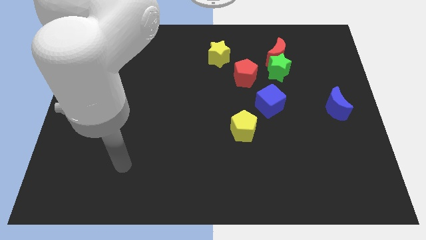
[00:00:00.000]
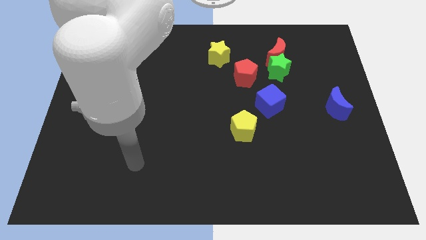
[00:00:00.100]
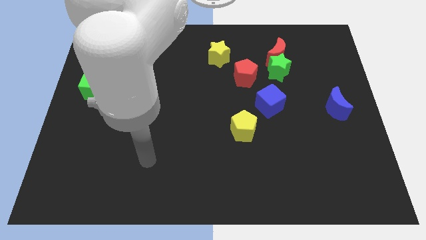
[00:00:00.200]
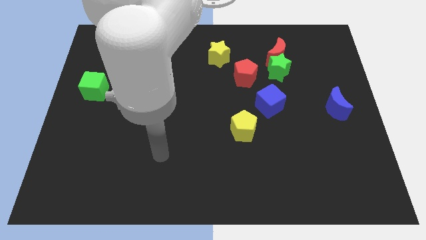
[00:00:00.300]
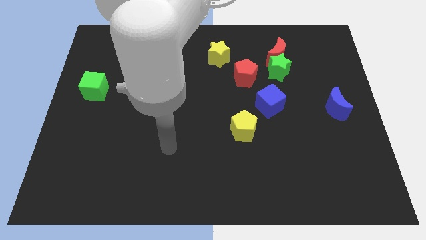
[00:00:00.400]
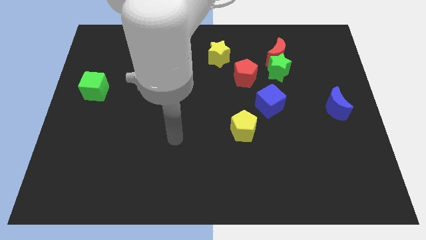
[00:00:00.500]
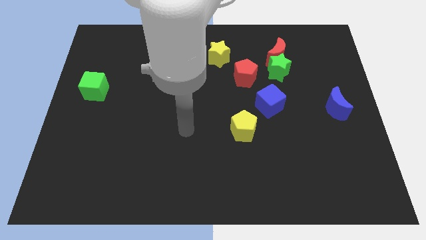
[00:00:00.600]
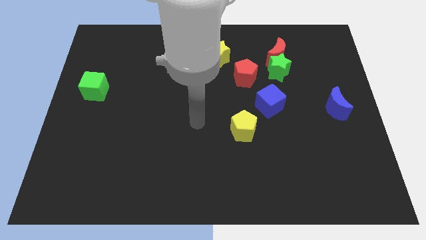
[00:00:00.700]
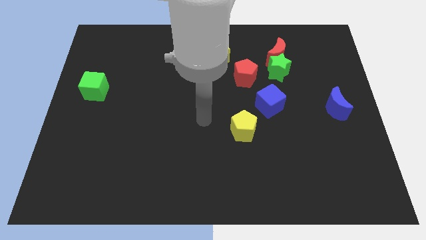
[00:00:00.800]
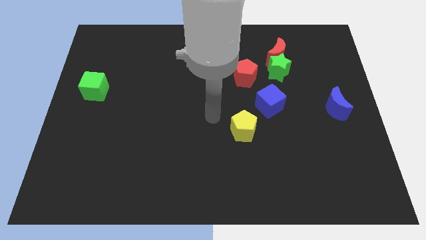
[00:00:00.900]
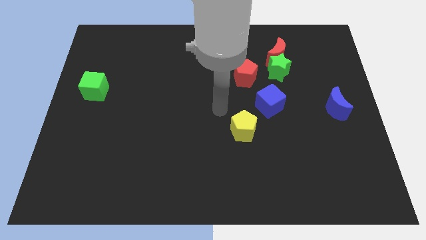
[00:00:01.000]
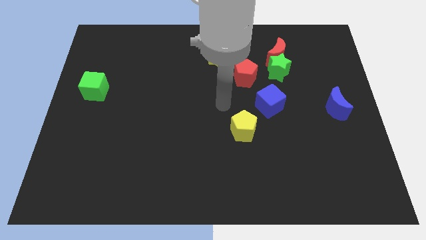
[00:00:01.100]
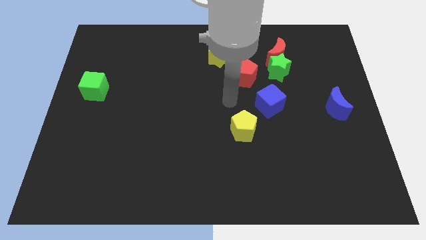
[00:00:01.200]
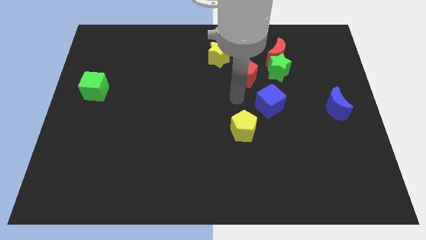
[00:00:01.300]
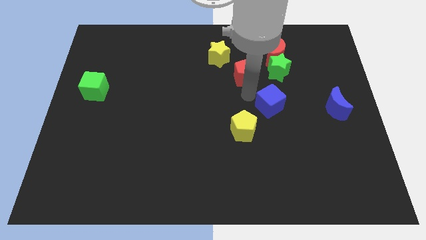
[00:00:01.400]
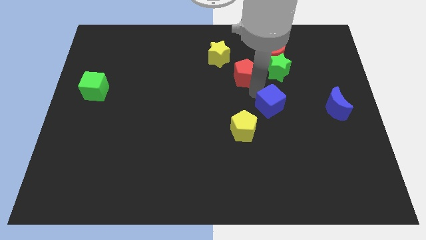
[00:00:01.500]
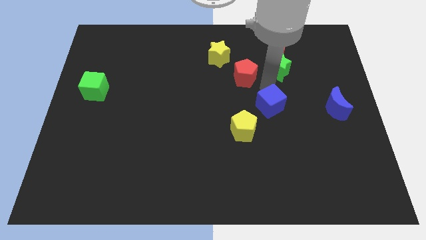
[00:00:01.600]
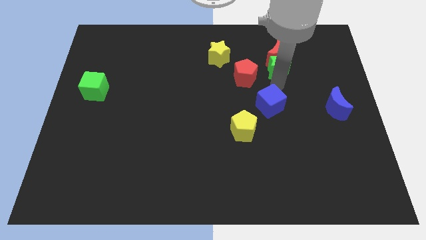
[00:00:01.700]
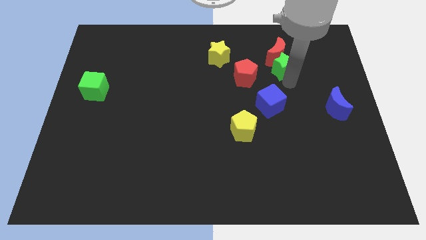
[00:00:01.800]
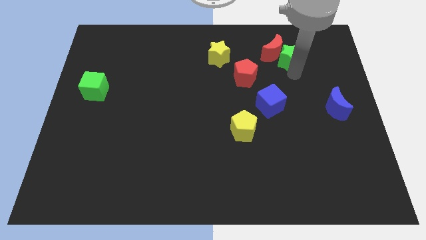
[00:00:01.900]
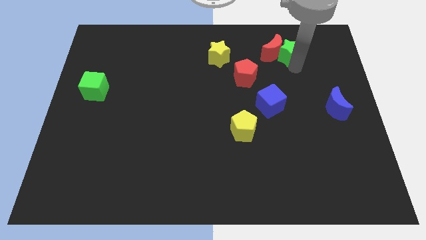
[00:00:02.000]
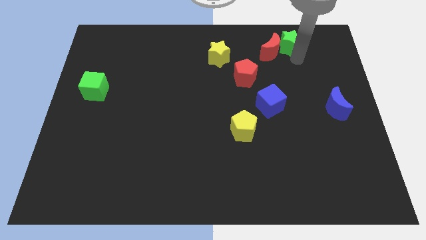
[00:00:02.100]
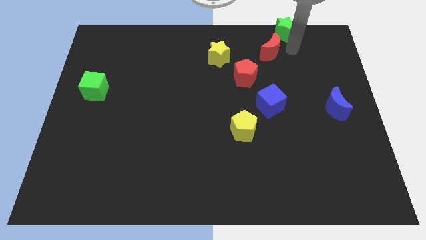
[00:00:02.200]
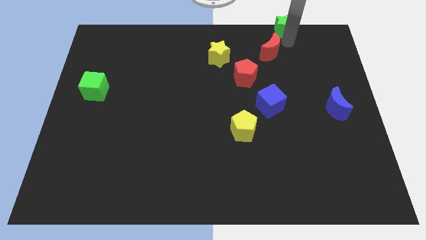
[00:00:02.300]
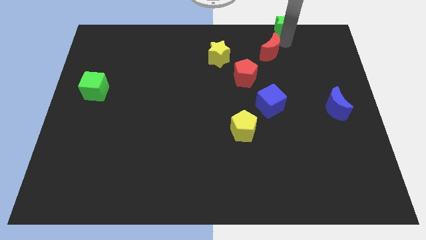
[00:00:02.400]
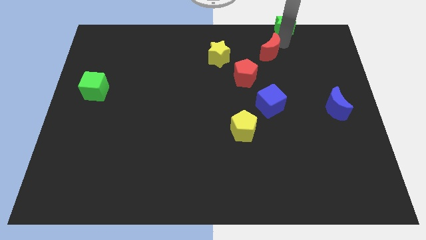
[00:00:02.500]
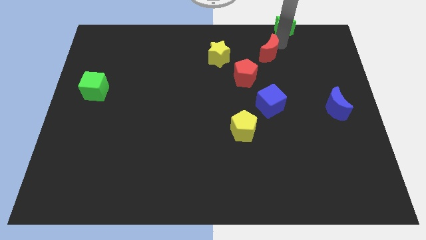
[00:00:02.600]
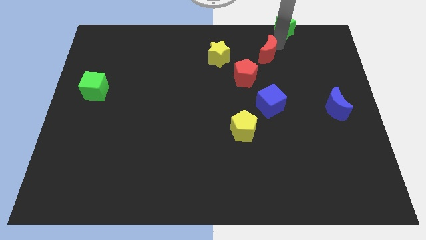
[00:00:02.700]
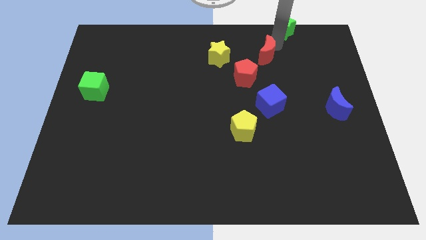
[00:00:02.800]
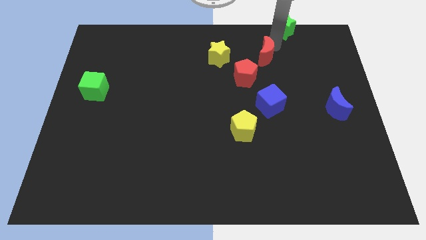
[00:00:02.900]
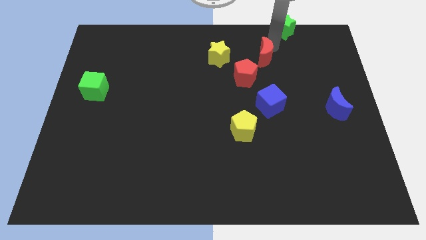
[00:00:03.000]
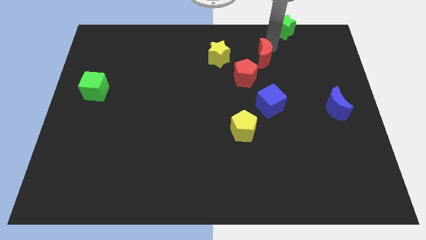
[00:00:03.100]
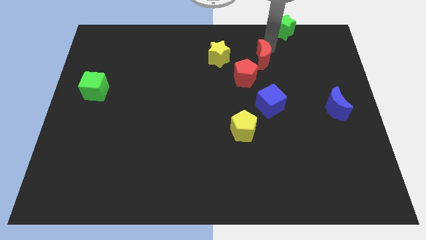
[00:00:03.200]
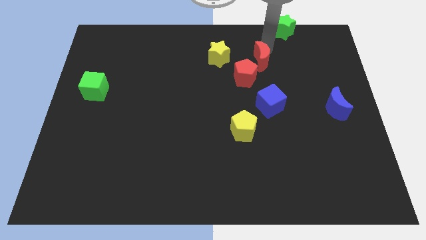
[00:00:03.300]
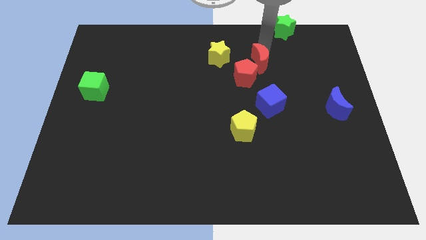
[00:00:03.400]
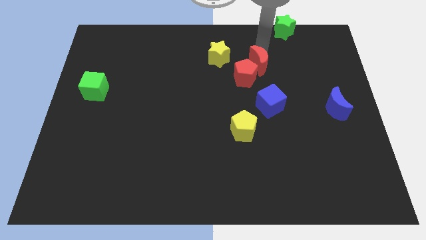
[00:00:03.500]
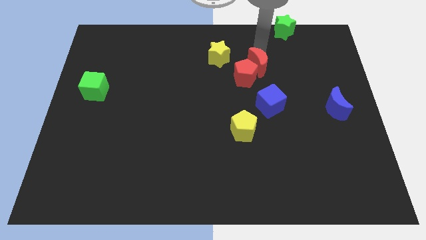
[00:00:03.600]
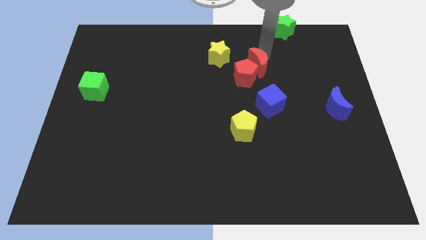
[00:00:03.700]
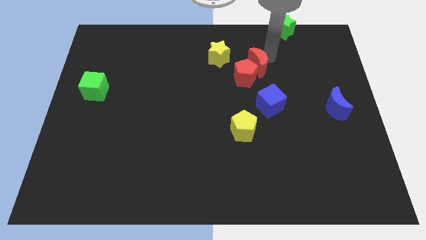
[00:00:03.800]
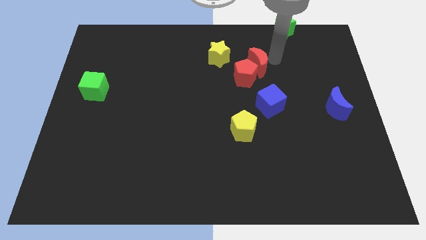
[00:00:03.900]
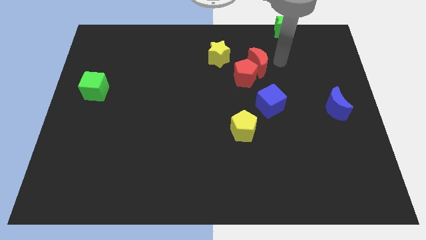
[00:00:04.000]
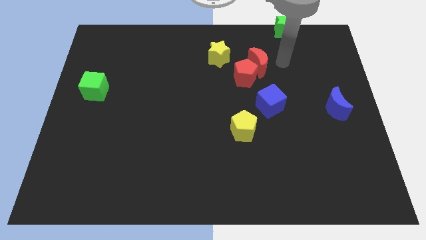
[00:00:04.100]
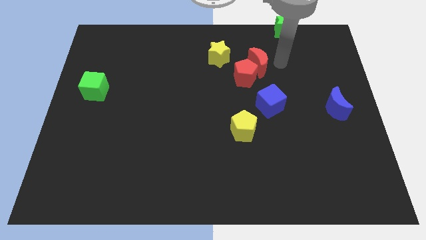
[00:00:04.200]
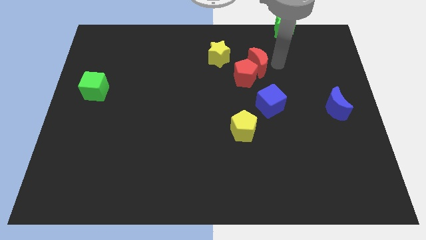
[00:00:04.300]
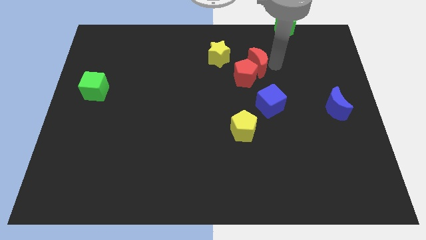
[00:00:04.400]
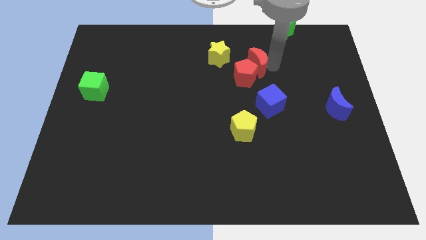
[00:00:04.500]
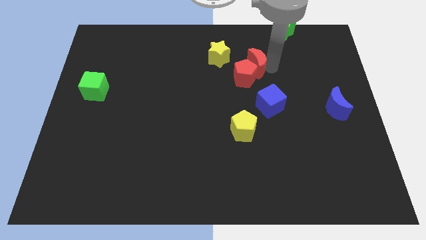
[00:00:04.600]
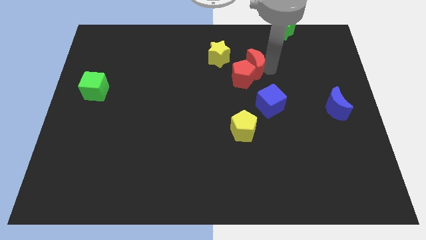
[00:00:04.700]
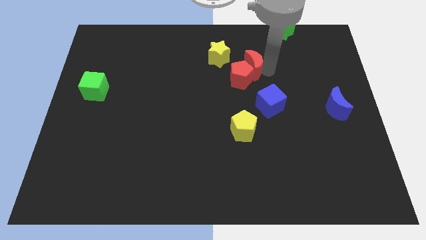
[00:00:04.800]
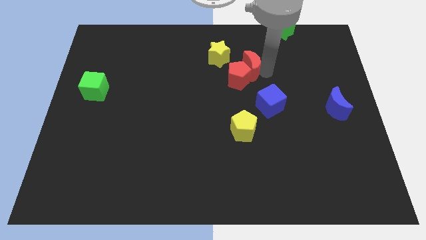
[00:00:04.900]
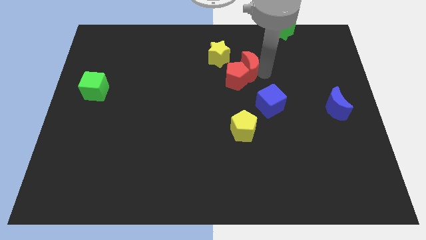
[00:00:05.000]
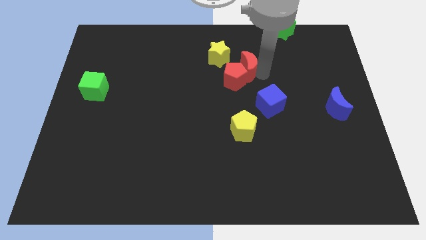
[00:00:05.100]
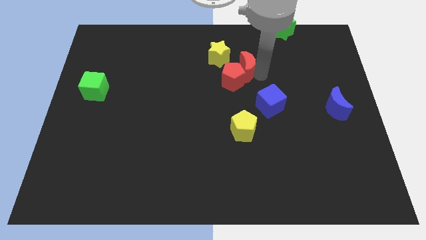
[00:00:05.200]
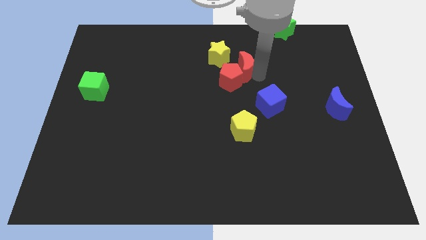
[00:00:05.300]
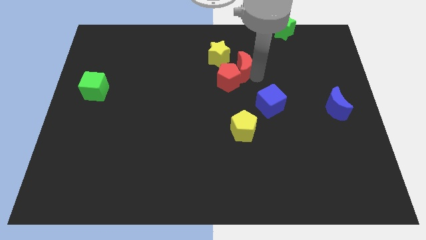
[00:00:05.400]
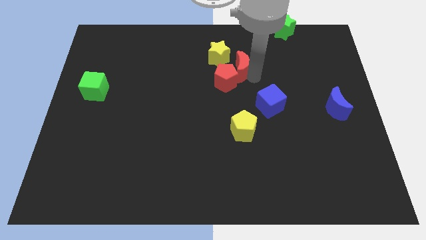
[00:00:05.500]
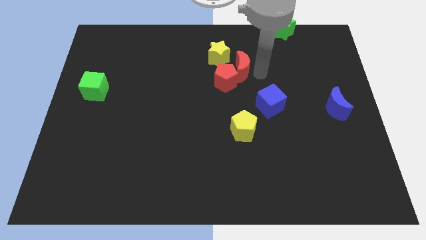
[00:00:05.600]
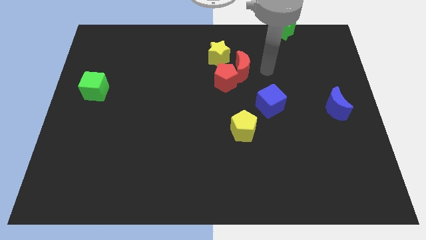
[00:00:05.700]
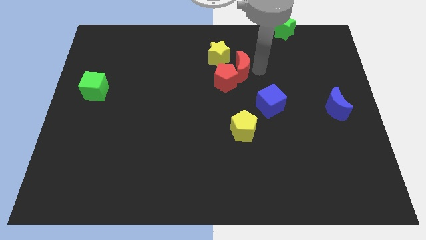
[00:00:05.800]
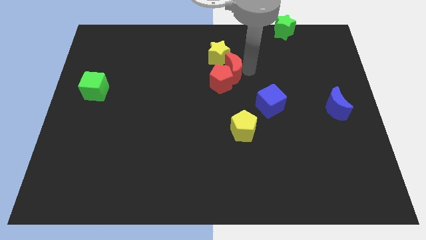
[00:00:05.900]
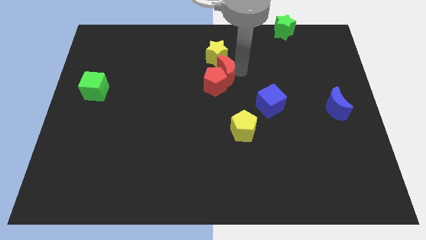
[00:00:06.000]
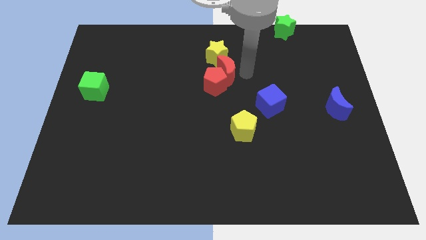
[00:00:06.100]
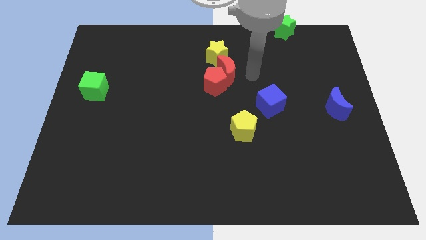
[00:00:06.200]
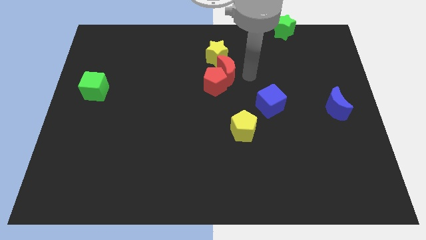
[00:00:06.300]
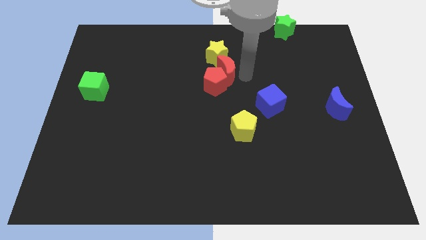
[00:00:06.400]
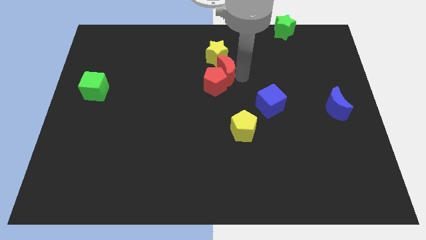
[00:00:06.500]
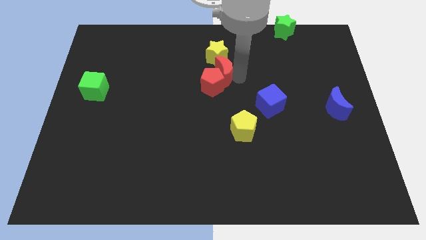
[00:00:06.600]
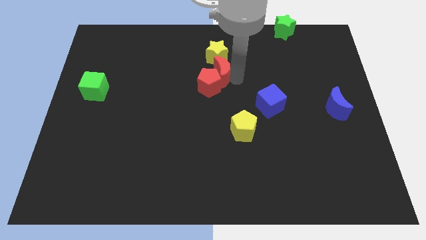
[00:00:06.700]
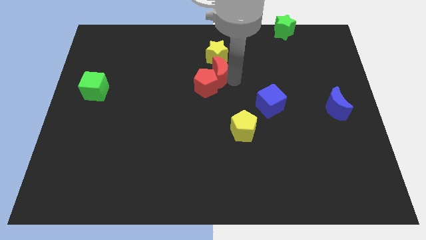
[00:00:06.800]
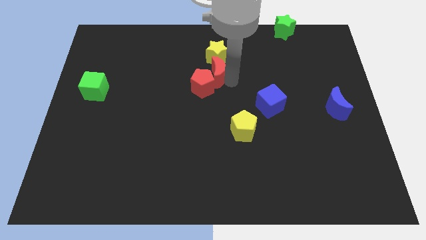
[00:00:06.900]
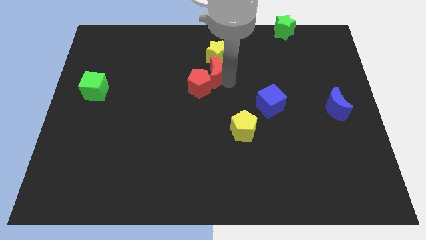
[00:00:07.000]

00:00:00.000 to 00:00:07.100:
move the red moon to the bottom left of the yellow star
